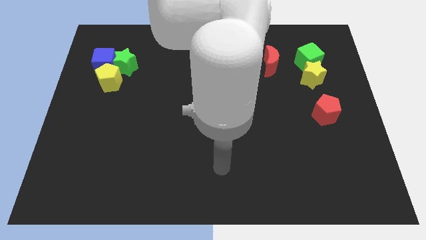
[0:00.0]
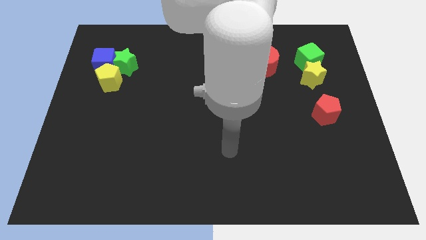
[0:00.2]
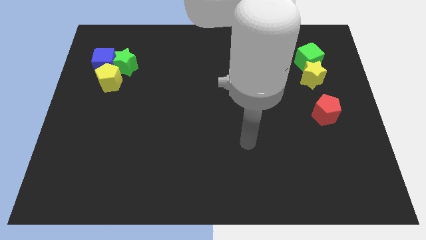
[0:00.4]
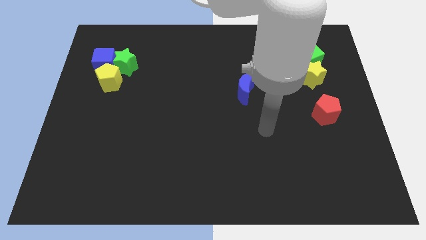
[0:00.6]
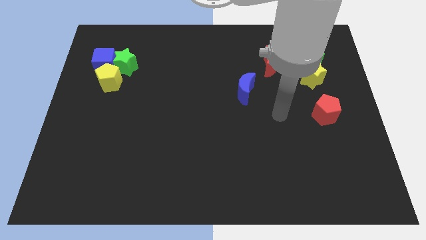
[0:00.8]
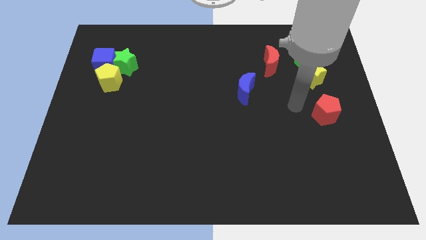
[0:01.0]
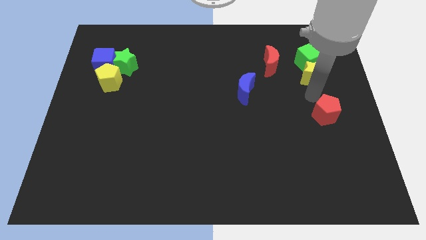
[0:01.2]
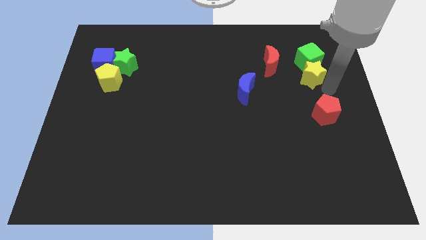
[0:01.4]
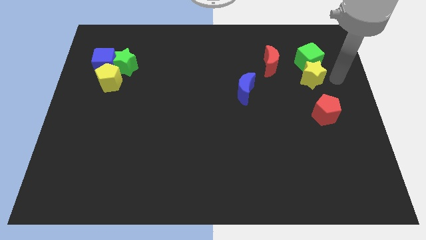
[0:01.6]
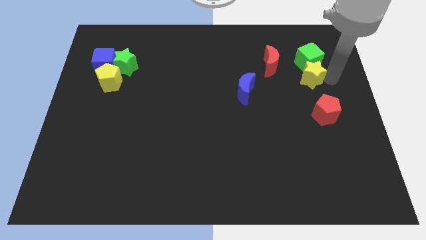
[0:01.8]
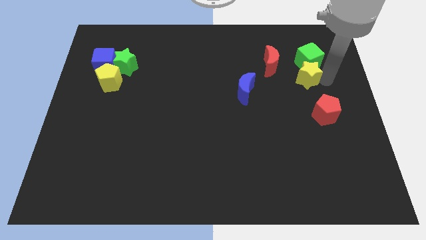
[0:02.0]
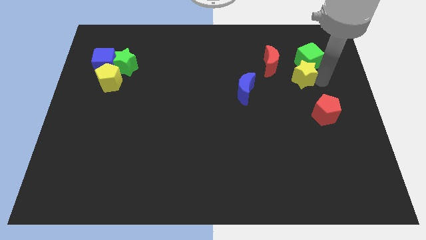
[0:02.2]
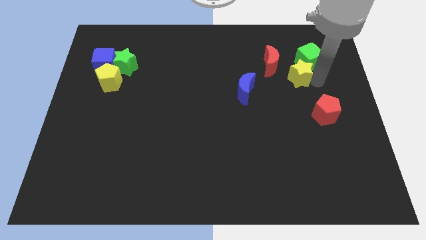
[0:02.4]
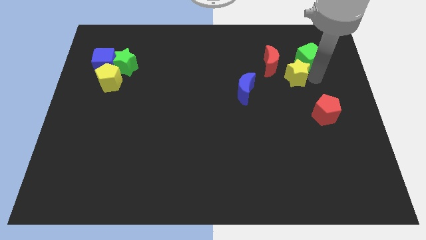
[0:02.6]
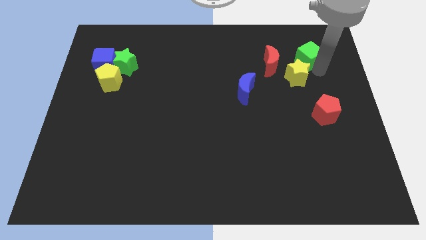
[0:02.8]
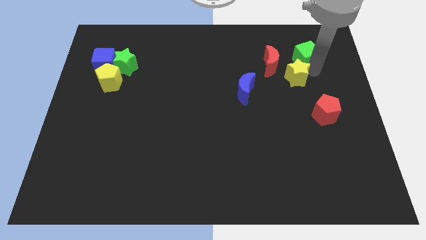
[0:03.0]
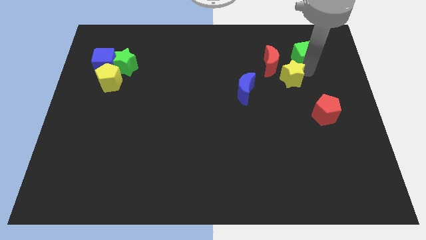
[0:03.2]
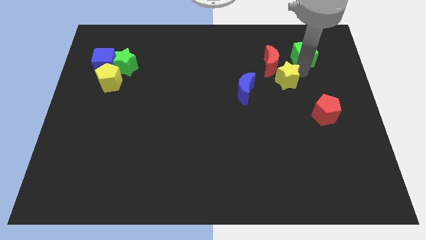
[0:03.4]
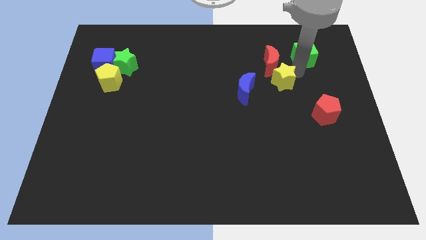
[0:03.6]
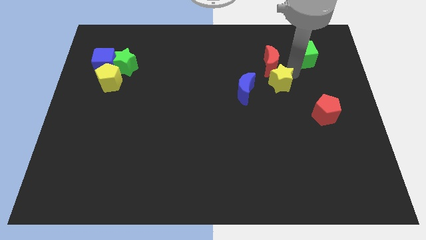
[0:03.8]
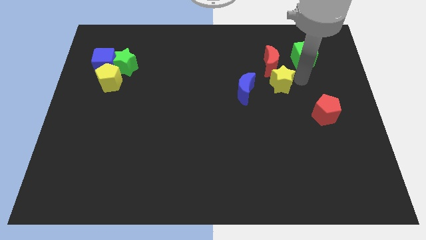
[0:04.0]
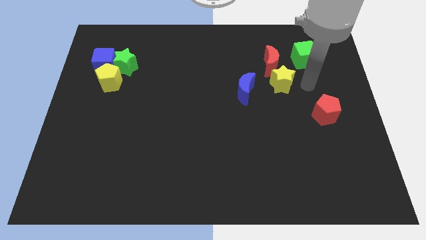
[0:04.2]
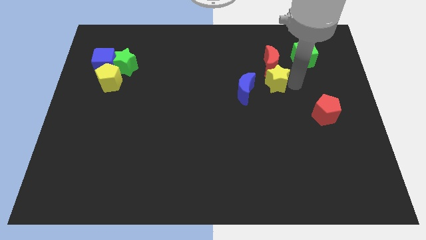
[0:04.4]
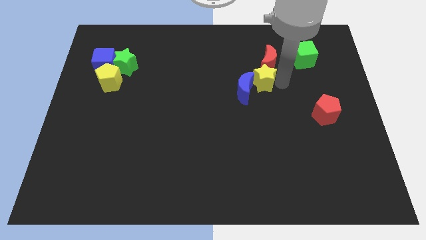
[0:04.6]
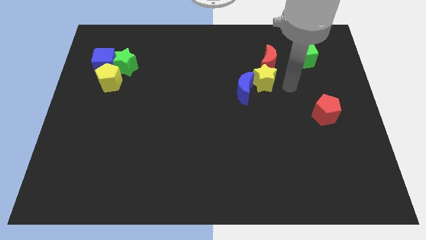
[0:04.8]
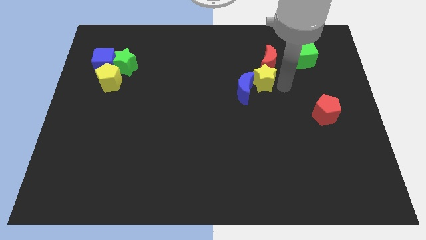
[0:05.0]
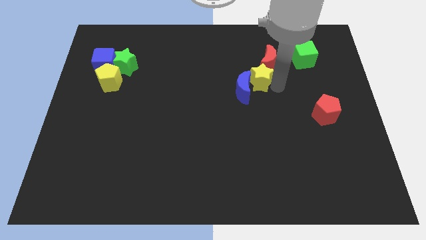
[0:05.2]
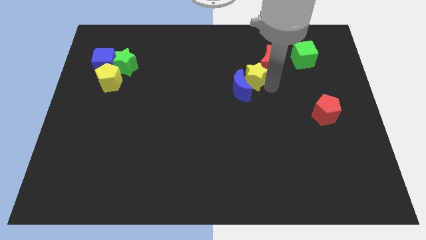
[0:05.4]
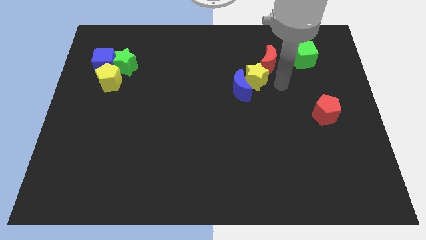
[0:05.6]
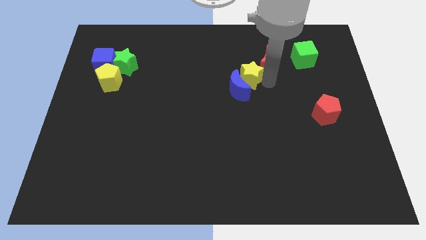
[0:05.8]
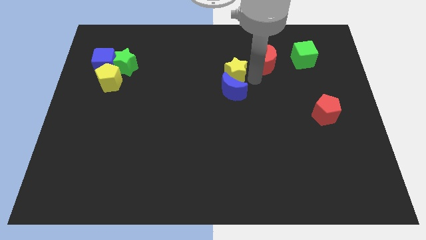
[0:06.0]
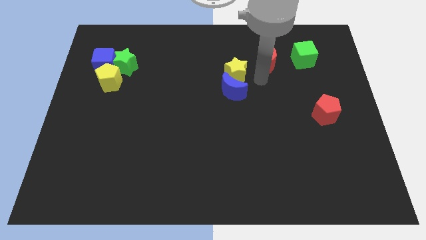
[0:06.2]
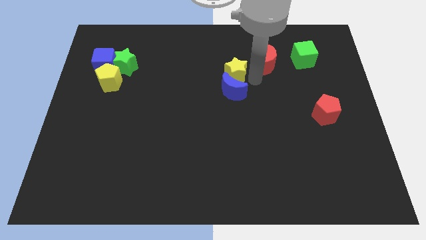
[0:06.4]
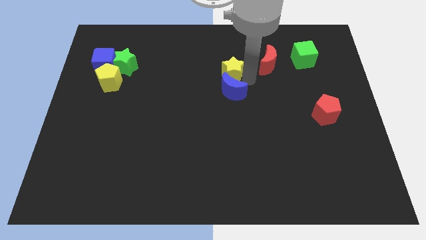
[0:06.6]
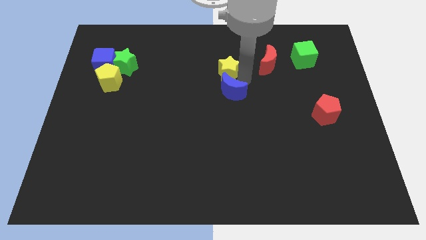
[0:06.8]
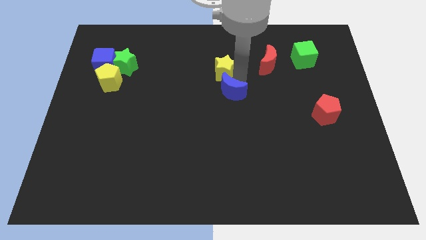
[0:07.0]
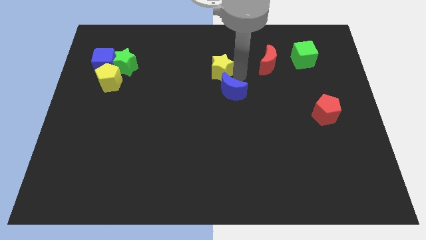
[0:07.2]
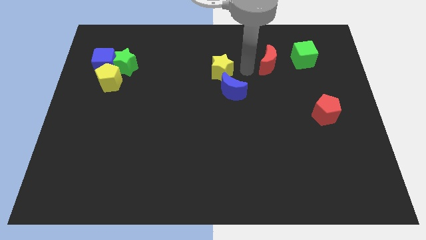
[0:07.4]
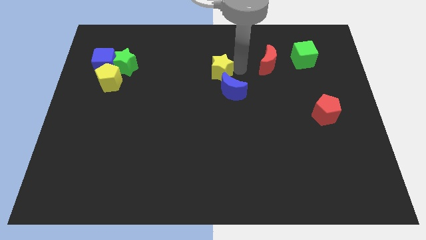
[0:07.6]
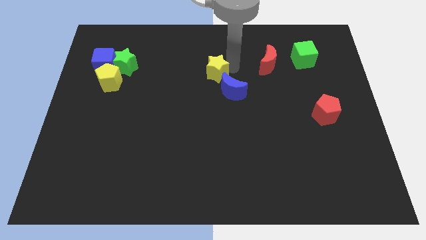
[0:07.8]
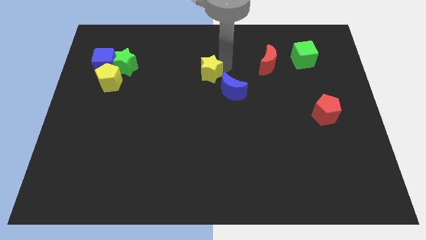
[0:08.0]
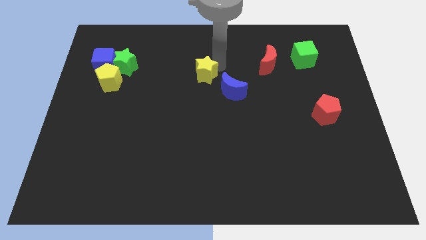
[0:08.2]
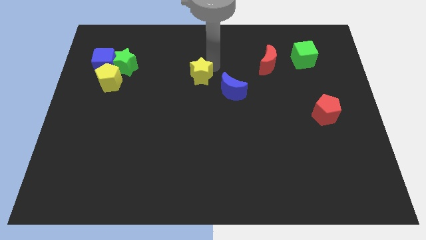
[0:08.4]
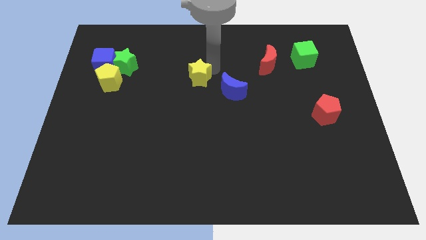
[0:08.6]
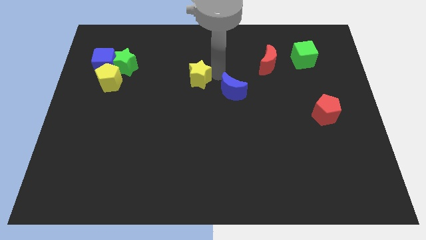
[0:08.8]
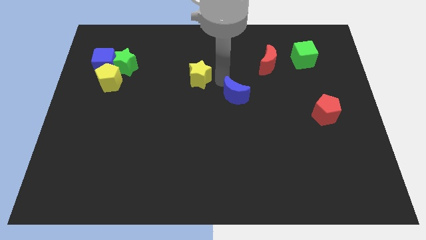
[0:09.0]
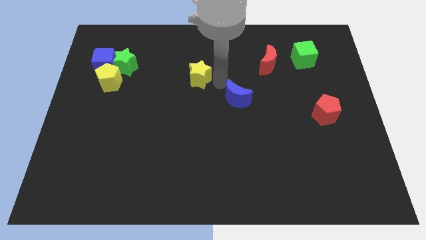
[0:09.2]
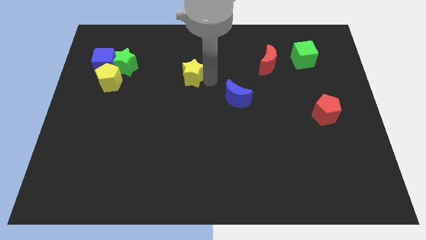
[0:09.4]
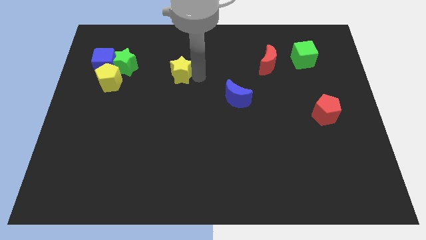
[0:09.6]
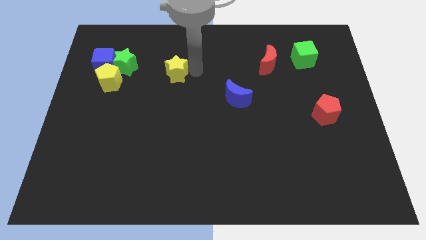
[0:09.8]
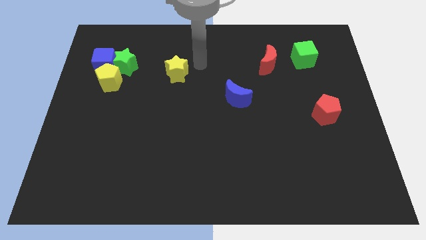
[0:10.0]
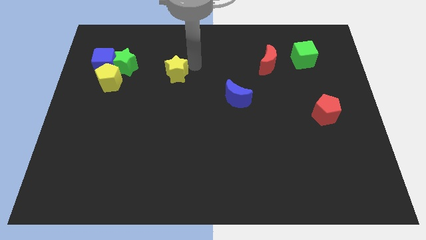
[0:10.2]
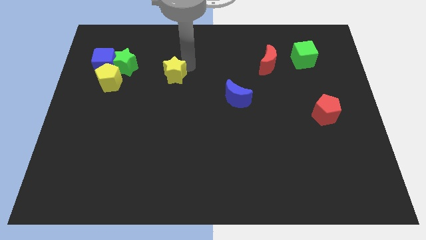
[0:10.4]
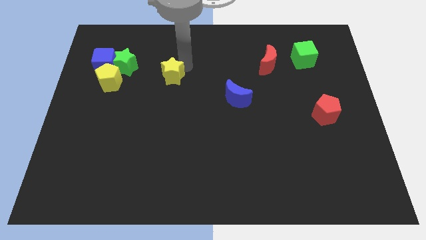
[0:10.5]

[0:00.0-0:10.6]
put the yellow star to the right of the yellow pentagon
